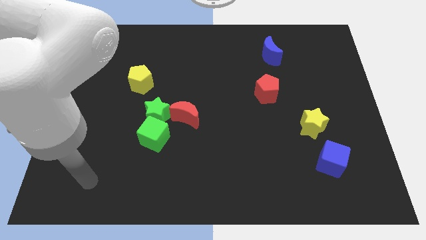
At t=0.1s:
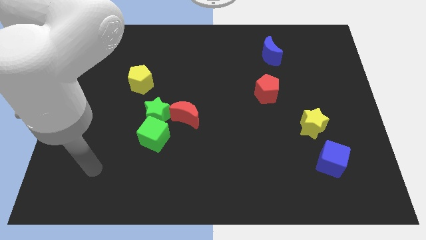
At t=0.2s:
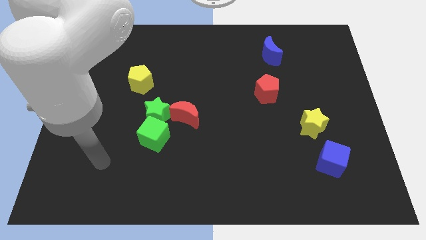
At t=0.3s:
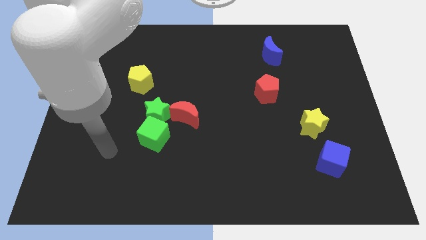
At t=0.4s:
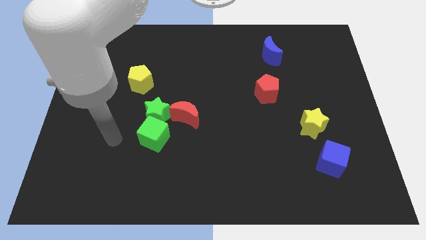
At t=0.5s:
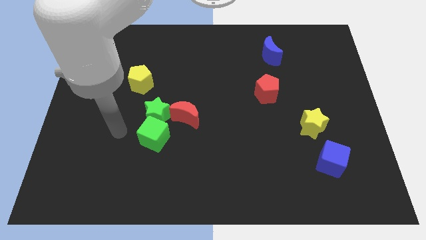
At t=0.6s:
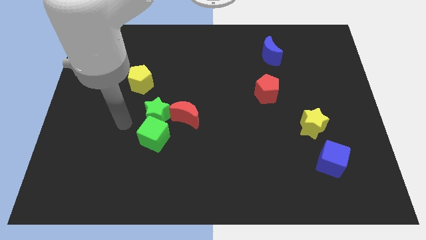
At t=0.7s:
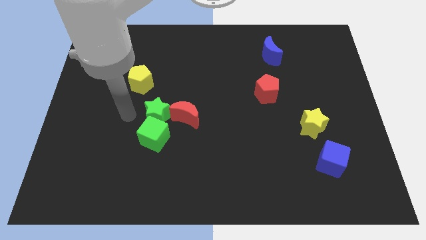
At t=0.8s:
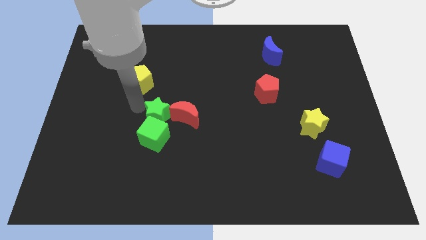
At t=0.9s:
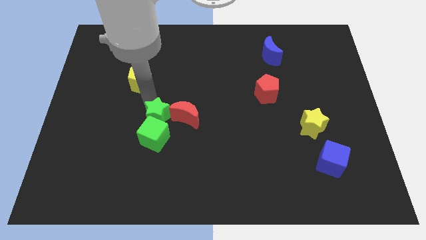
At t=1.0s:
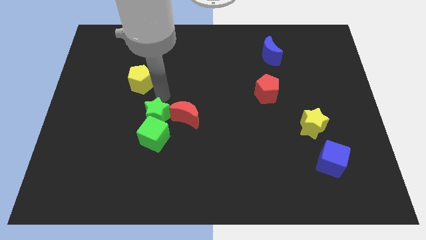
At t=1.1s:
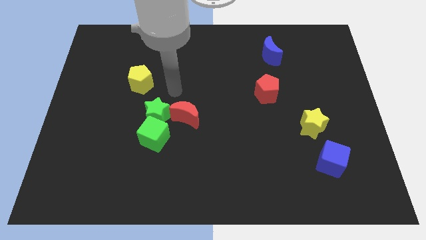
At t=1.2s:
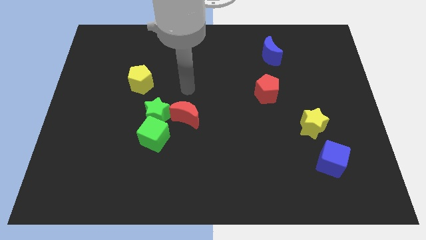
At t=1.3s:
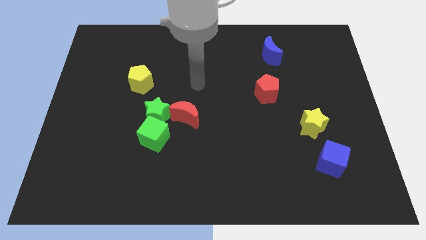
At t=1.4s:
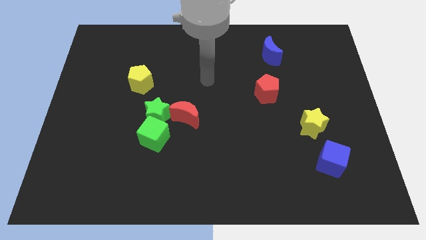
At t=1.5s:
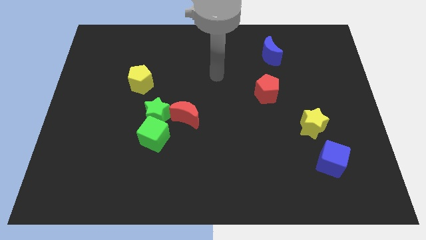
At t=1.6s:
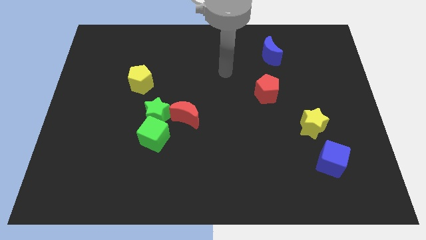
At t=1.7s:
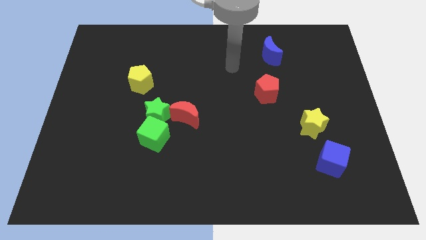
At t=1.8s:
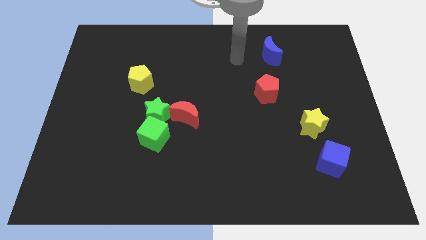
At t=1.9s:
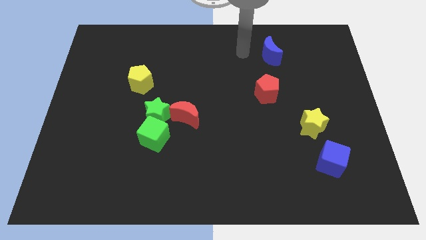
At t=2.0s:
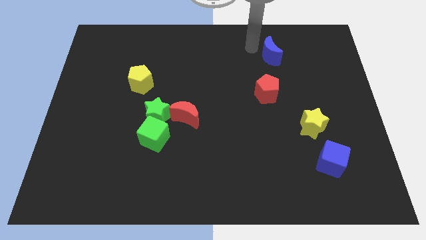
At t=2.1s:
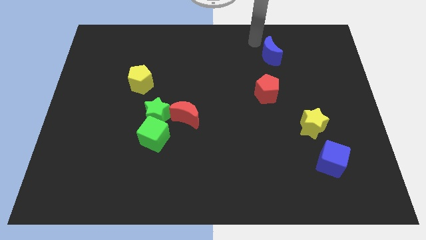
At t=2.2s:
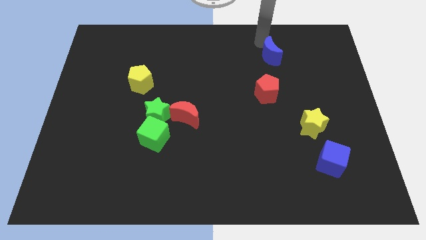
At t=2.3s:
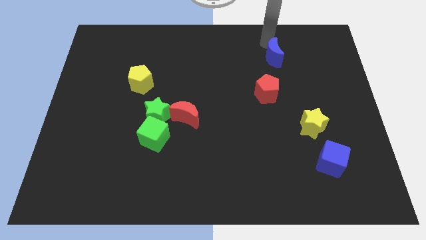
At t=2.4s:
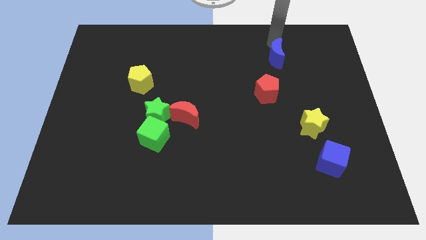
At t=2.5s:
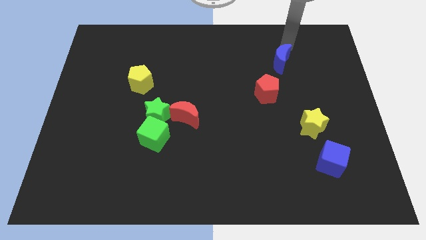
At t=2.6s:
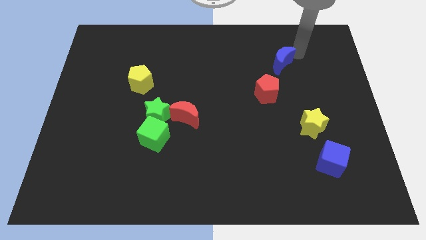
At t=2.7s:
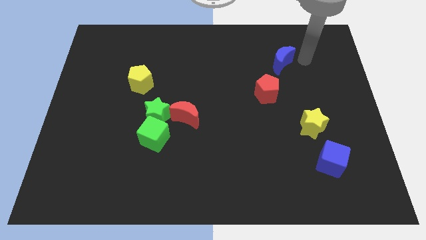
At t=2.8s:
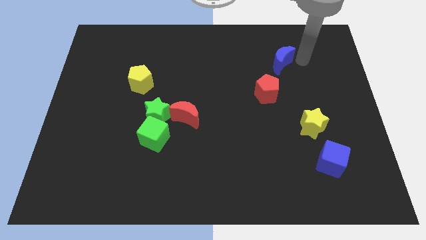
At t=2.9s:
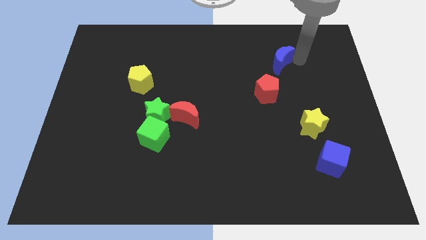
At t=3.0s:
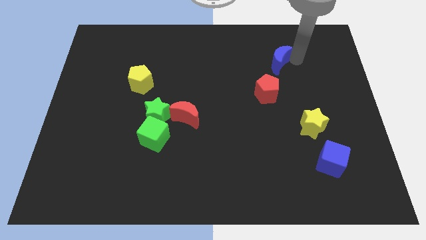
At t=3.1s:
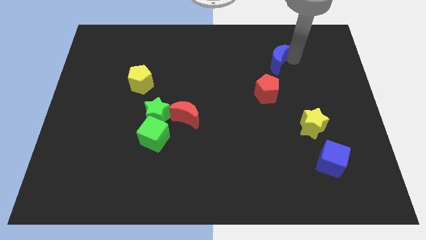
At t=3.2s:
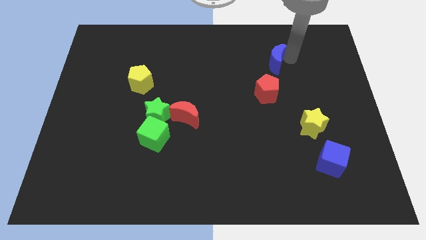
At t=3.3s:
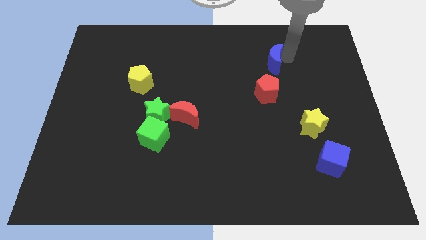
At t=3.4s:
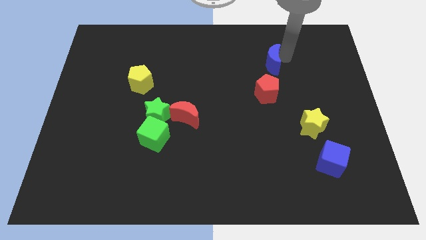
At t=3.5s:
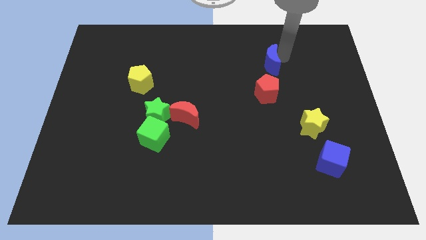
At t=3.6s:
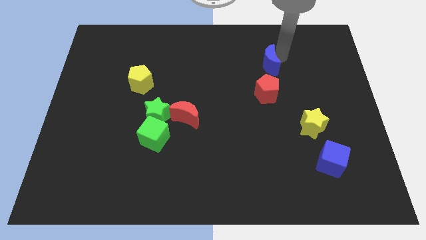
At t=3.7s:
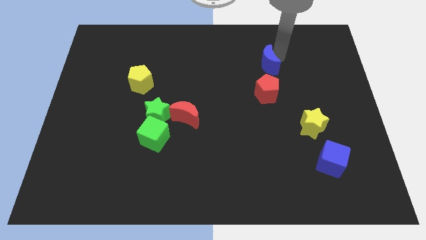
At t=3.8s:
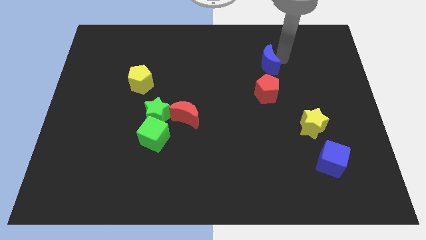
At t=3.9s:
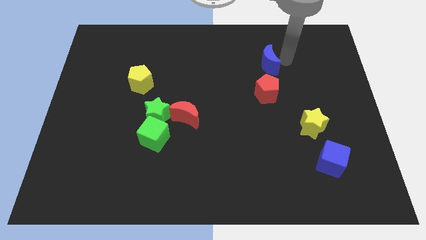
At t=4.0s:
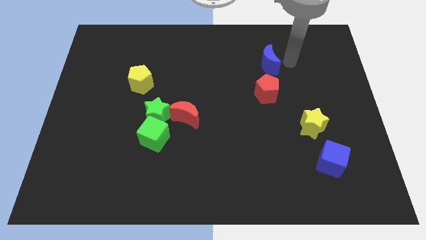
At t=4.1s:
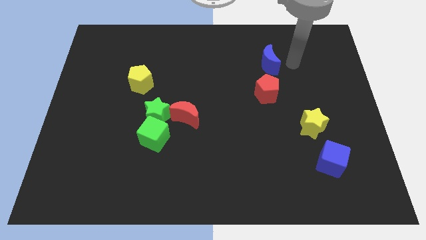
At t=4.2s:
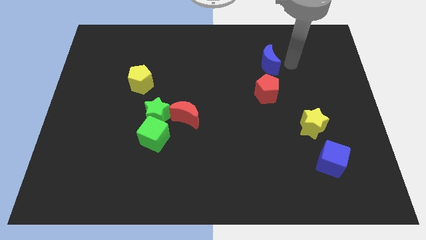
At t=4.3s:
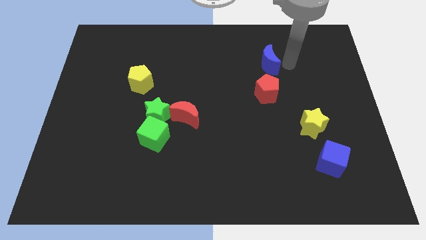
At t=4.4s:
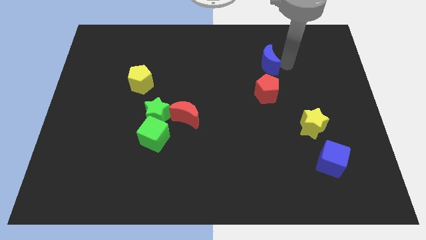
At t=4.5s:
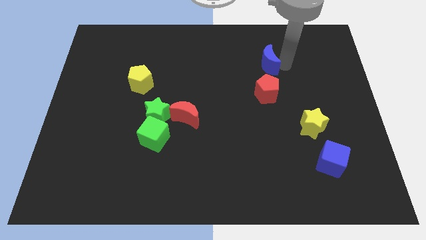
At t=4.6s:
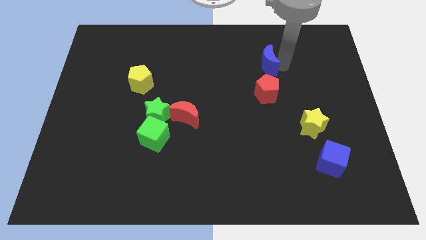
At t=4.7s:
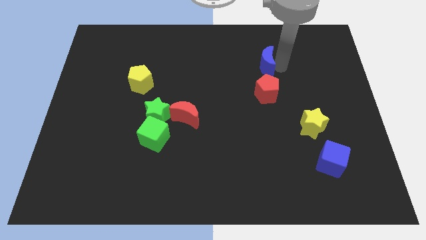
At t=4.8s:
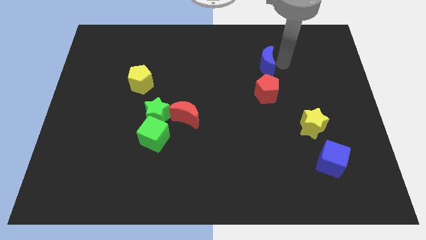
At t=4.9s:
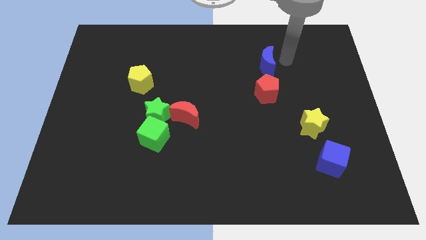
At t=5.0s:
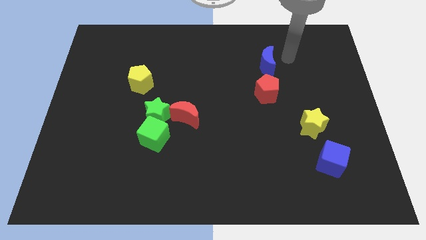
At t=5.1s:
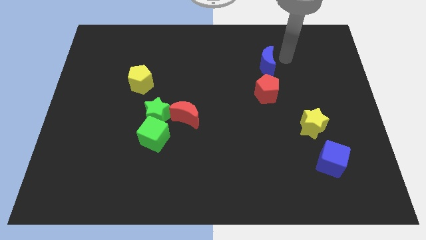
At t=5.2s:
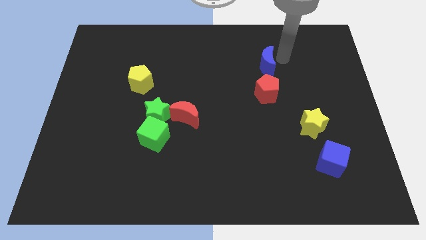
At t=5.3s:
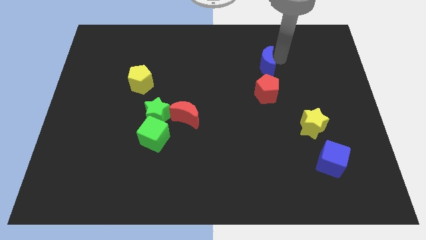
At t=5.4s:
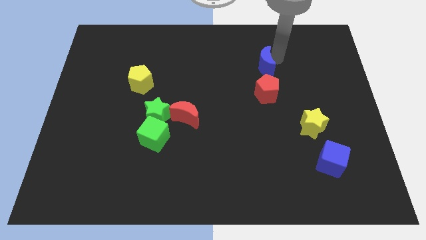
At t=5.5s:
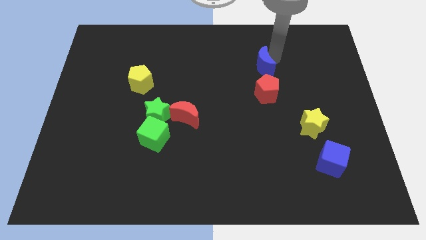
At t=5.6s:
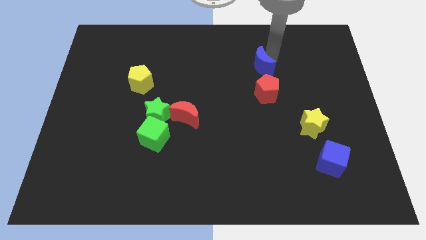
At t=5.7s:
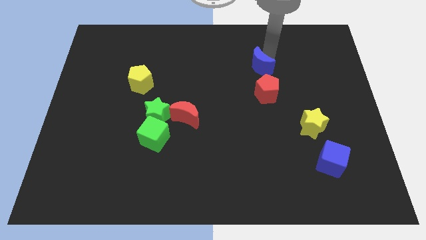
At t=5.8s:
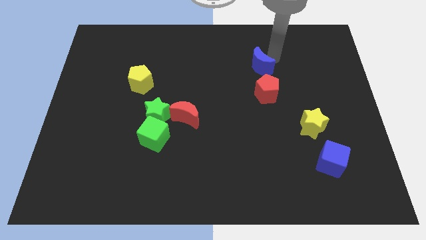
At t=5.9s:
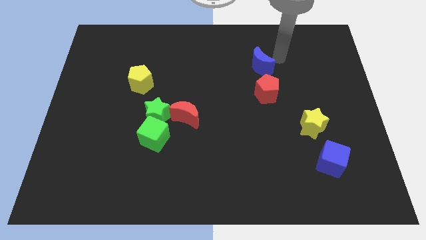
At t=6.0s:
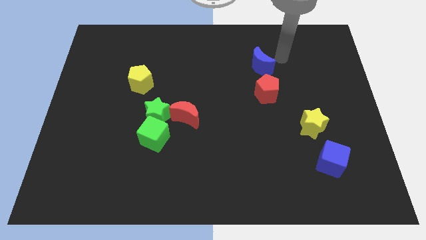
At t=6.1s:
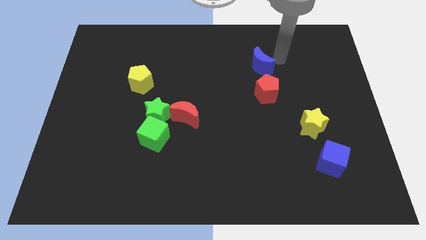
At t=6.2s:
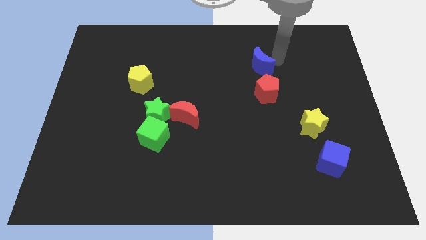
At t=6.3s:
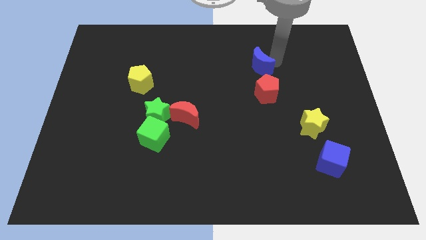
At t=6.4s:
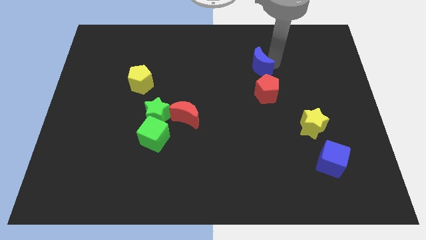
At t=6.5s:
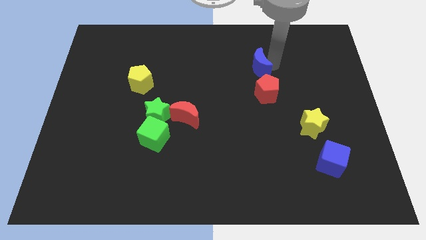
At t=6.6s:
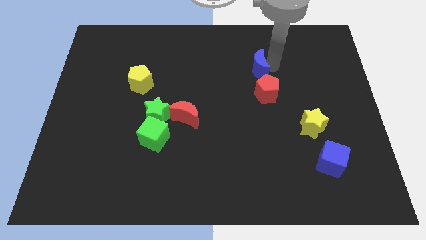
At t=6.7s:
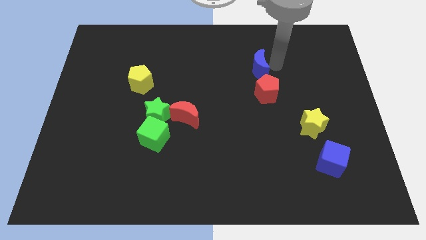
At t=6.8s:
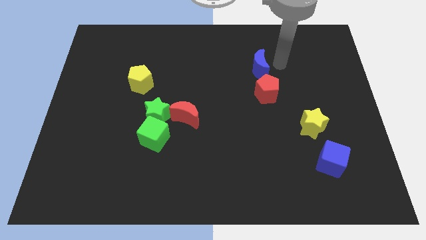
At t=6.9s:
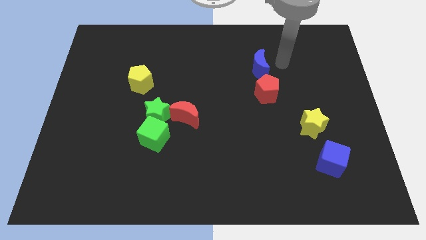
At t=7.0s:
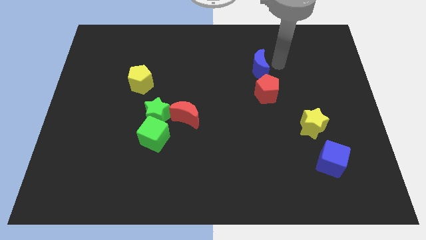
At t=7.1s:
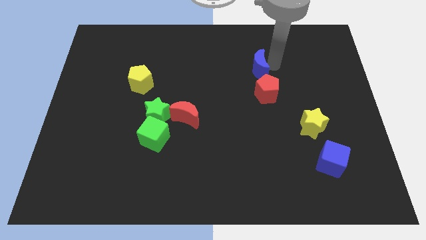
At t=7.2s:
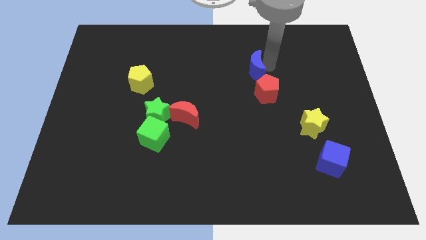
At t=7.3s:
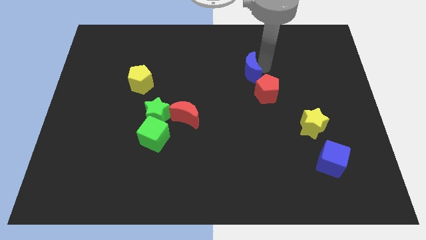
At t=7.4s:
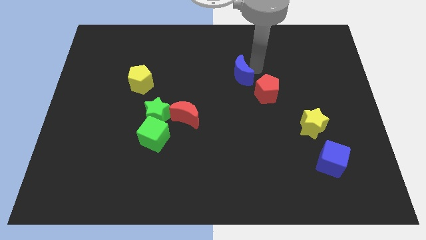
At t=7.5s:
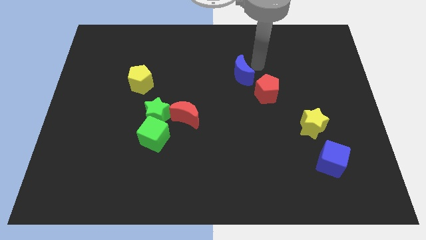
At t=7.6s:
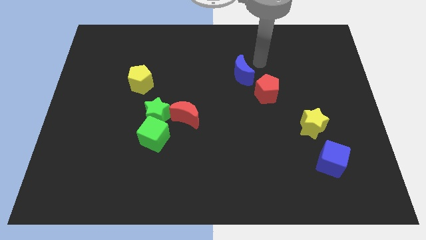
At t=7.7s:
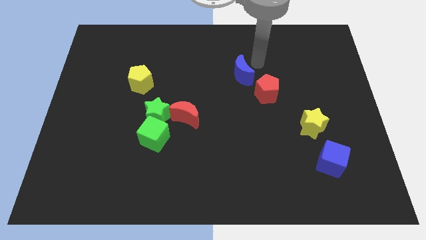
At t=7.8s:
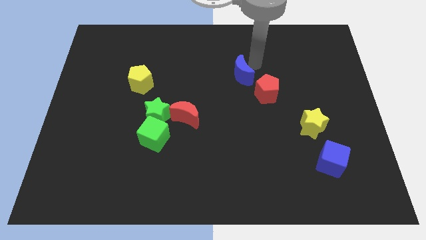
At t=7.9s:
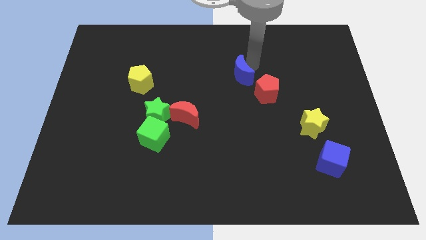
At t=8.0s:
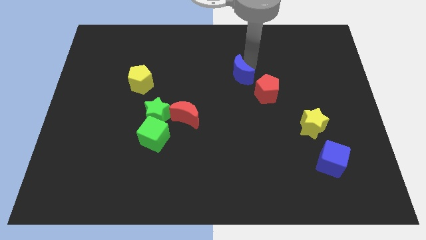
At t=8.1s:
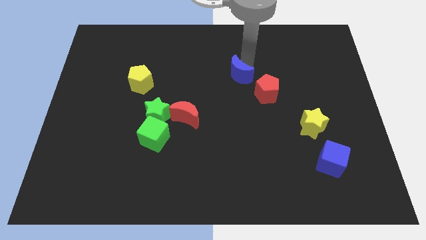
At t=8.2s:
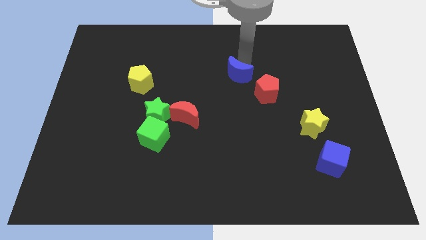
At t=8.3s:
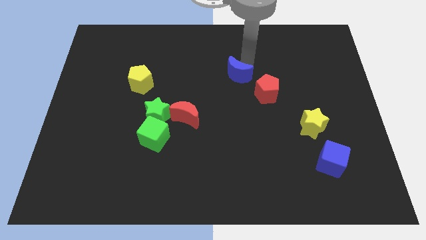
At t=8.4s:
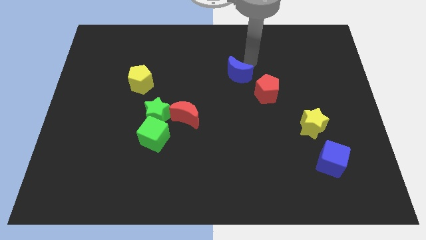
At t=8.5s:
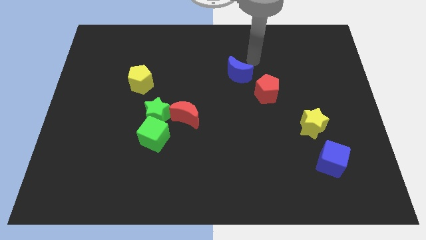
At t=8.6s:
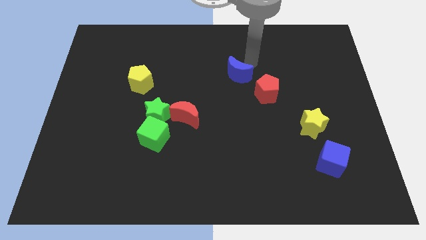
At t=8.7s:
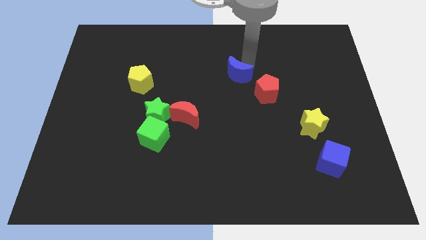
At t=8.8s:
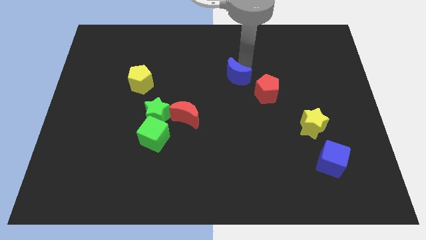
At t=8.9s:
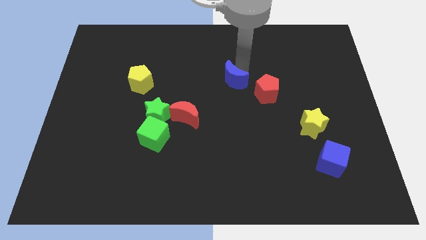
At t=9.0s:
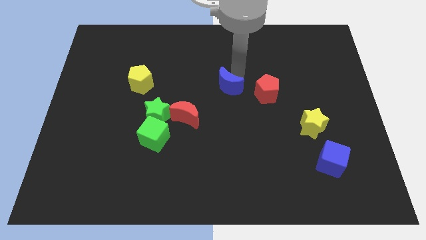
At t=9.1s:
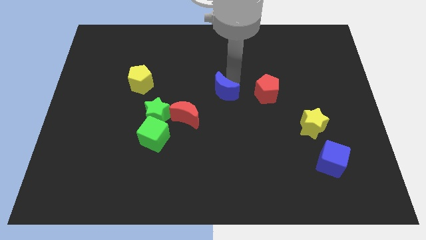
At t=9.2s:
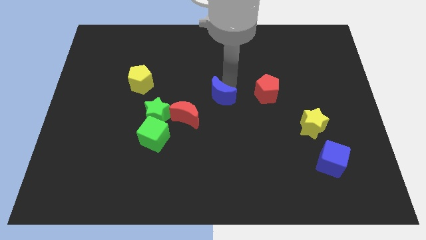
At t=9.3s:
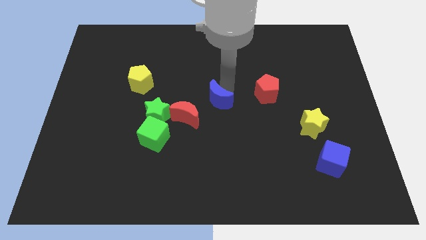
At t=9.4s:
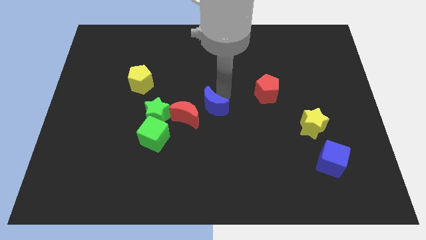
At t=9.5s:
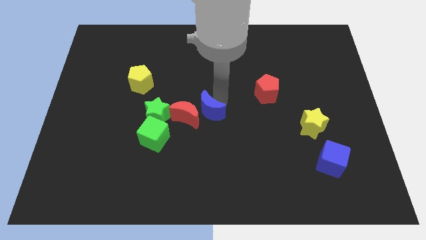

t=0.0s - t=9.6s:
push the blue moon close to the red moon
